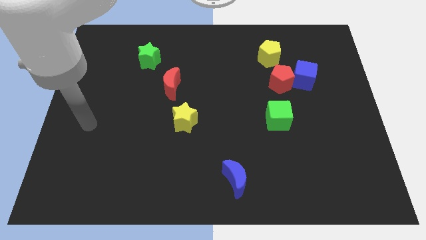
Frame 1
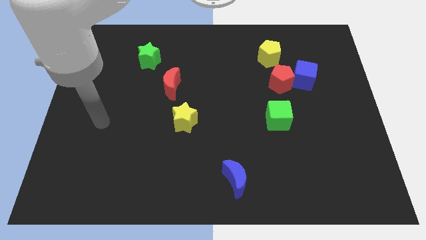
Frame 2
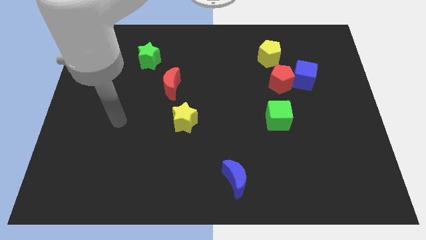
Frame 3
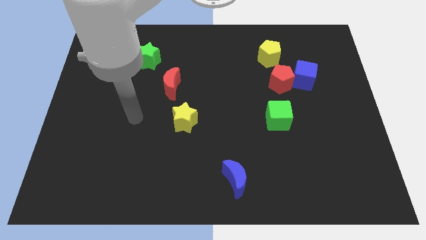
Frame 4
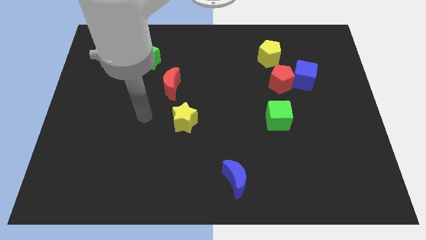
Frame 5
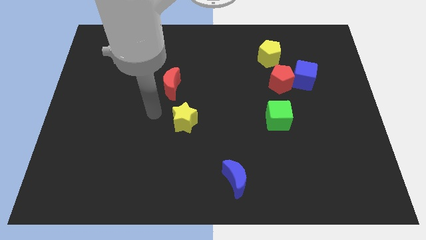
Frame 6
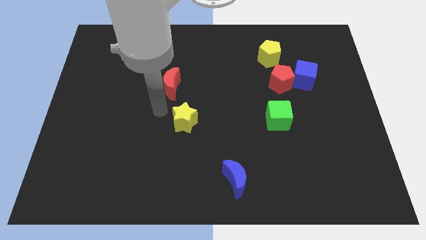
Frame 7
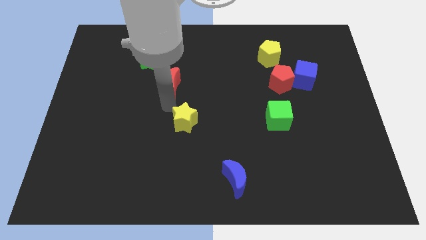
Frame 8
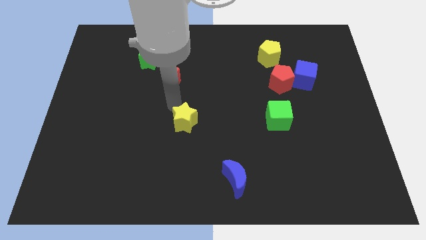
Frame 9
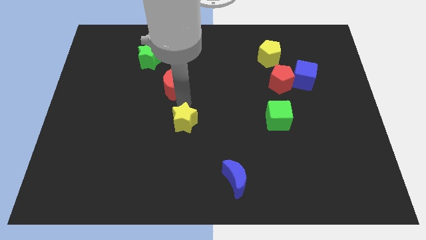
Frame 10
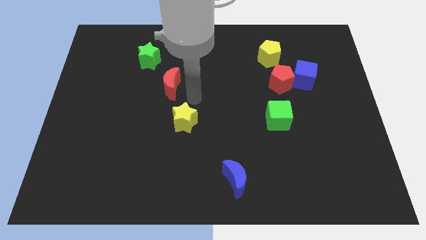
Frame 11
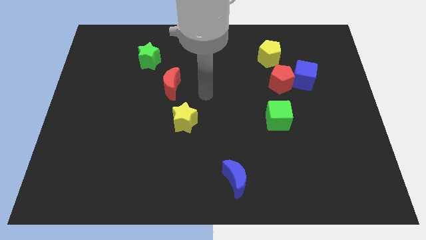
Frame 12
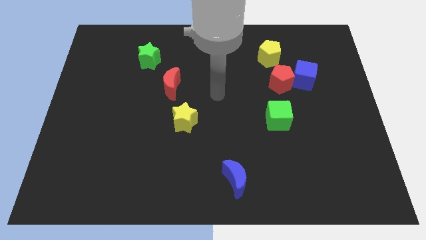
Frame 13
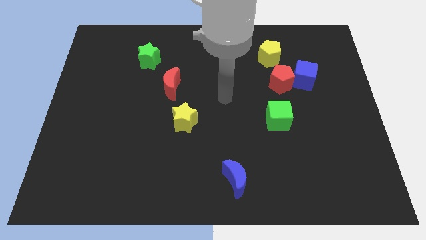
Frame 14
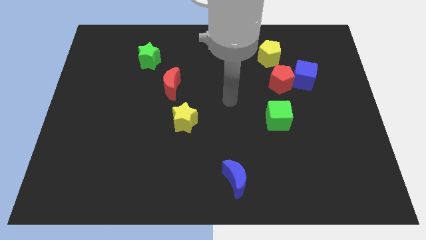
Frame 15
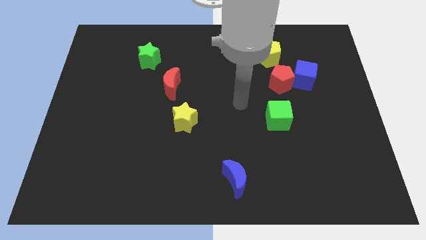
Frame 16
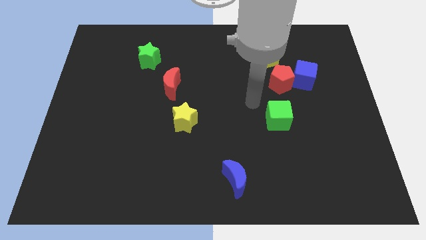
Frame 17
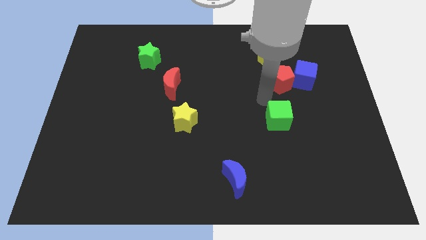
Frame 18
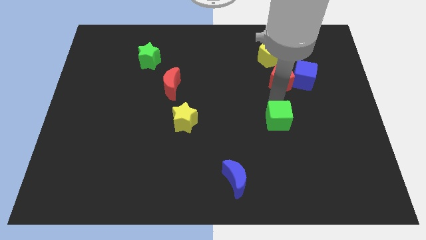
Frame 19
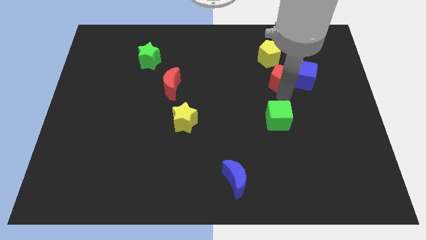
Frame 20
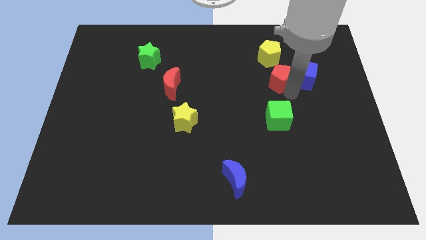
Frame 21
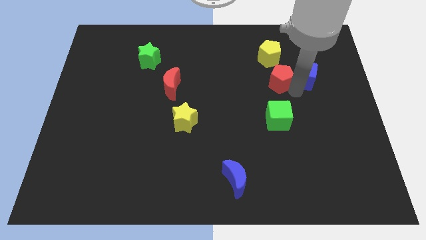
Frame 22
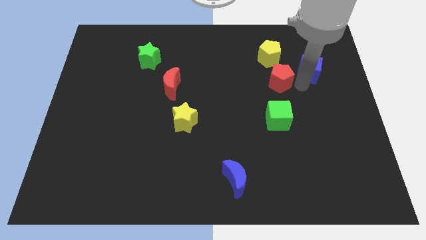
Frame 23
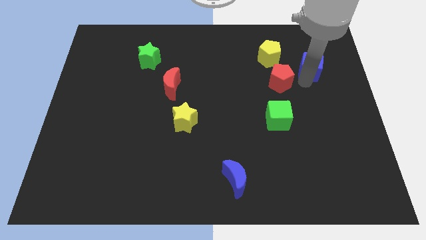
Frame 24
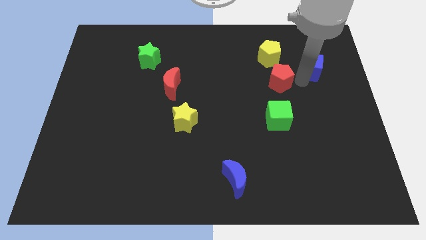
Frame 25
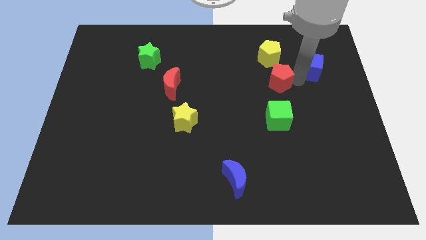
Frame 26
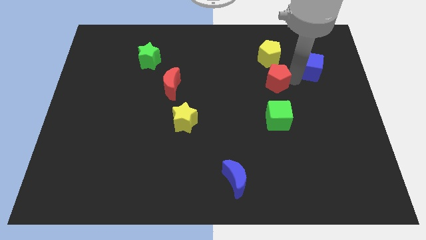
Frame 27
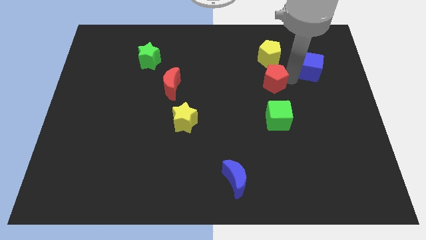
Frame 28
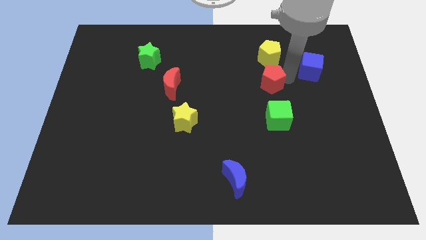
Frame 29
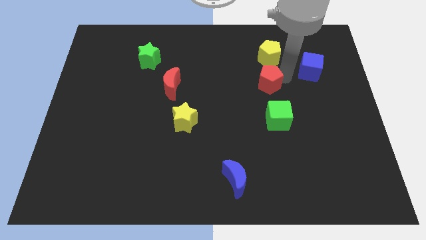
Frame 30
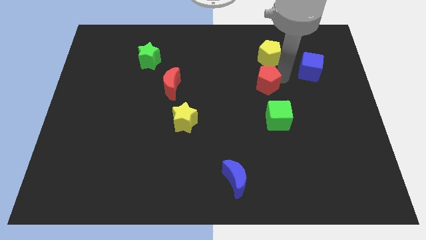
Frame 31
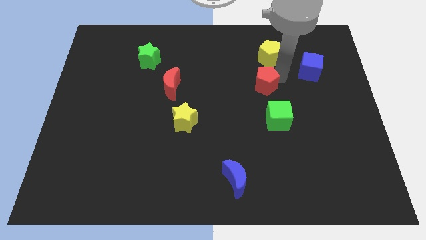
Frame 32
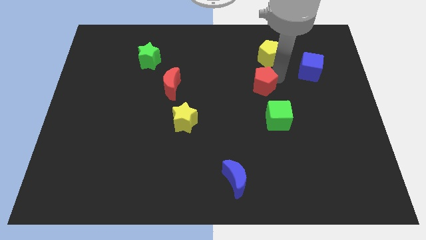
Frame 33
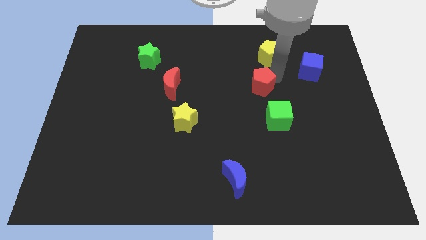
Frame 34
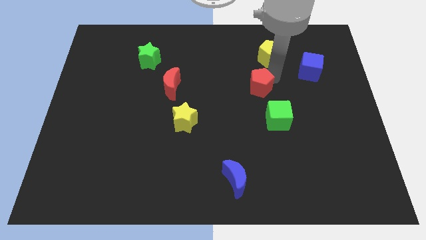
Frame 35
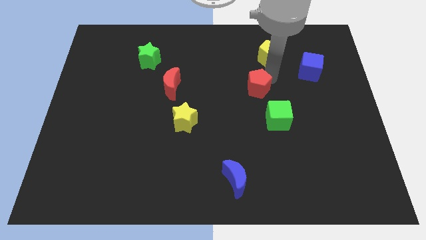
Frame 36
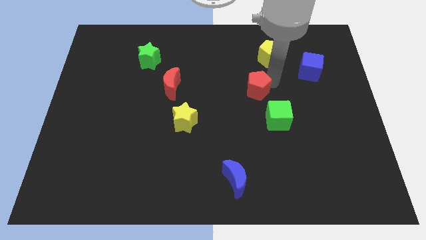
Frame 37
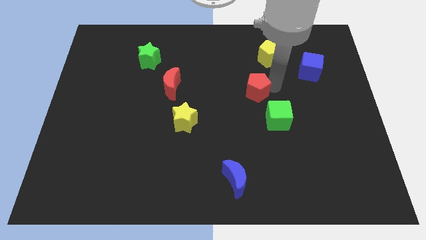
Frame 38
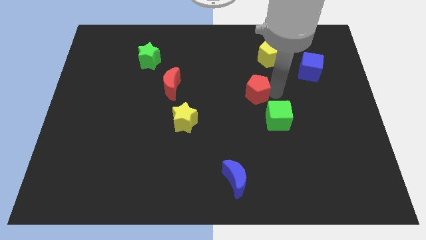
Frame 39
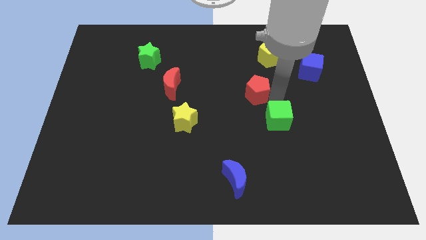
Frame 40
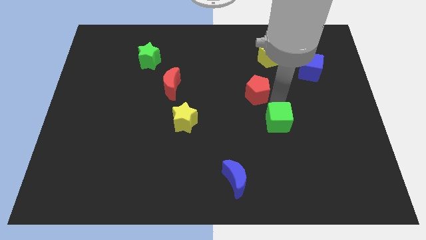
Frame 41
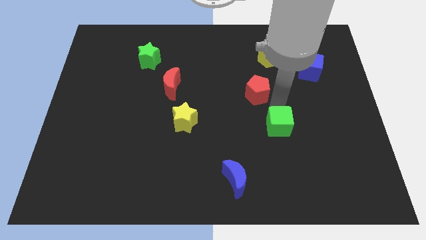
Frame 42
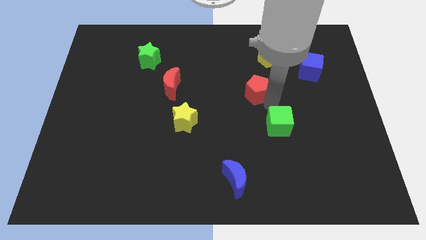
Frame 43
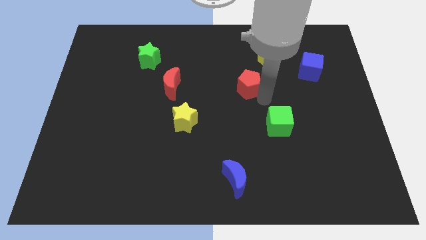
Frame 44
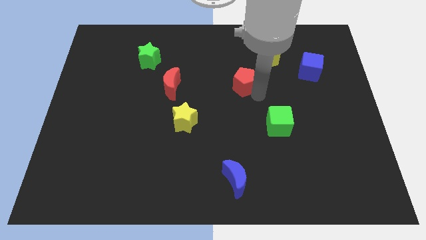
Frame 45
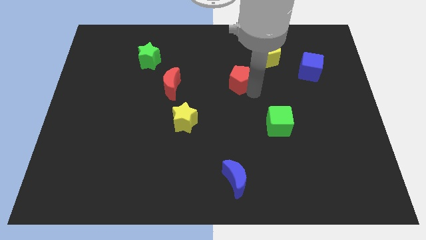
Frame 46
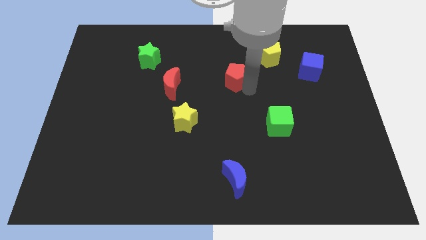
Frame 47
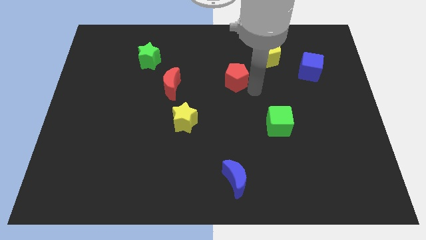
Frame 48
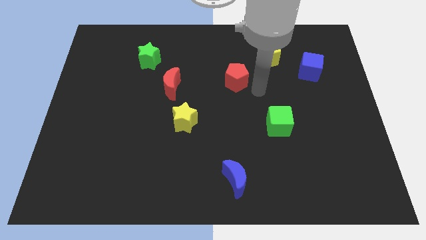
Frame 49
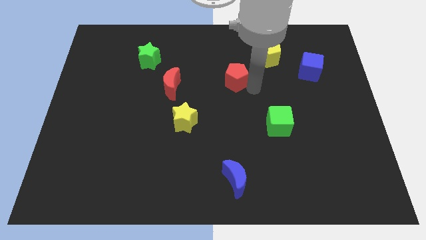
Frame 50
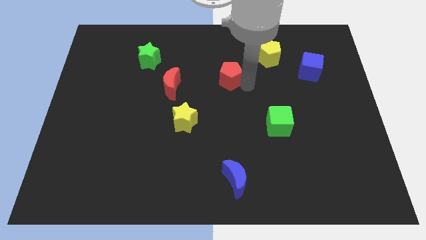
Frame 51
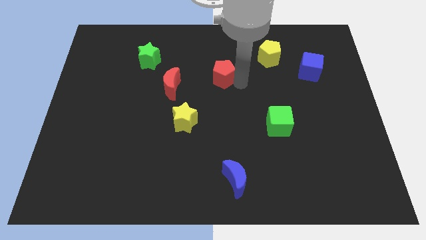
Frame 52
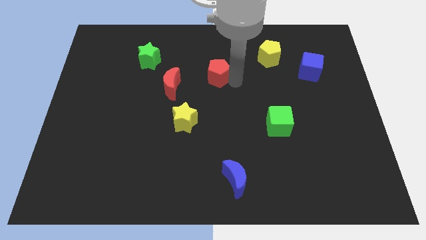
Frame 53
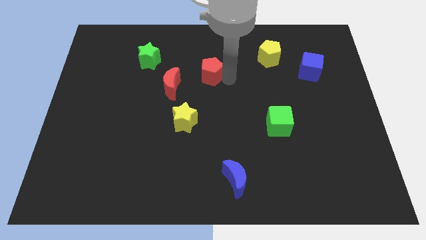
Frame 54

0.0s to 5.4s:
slide the red pentagon diagonally up and to the right of the red moon

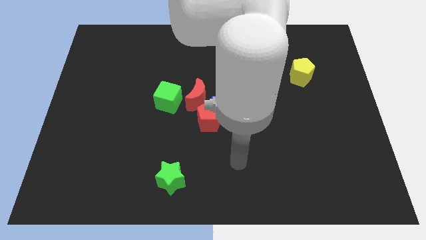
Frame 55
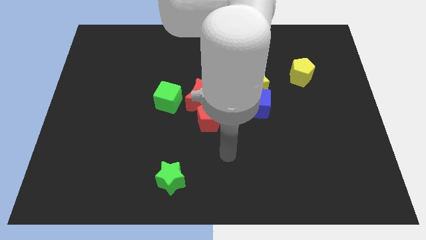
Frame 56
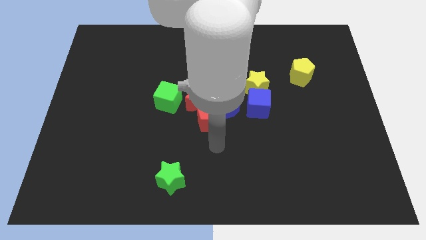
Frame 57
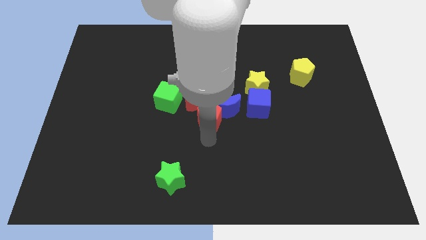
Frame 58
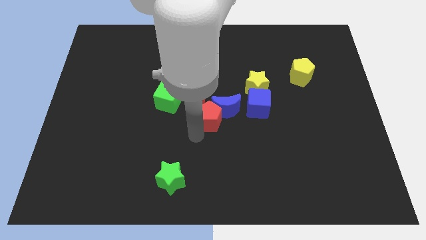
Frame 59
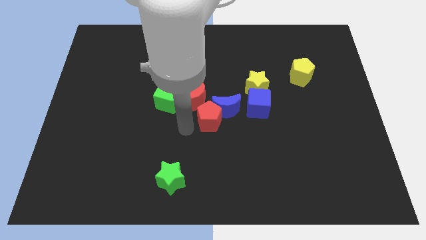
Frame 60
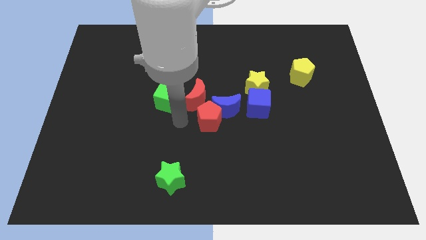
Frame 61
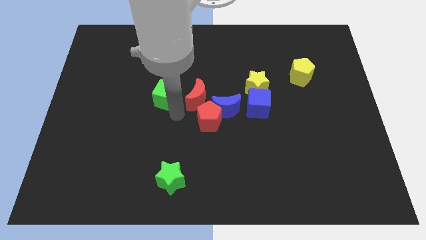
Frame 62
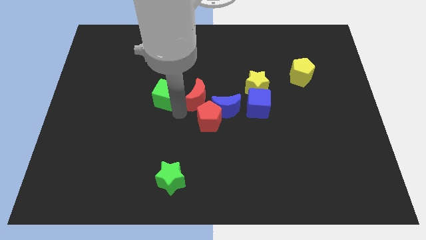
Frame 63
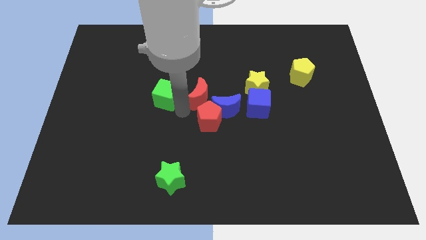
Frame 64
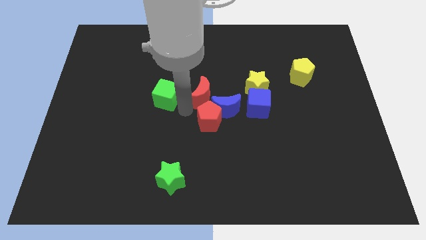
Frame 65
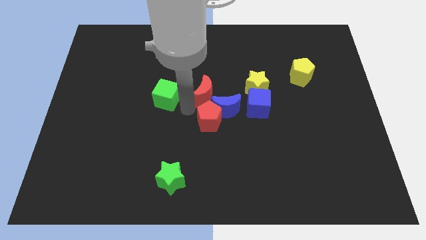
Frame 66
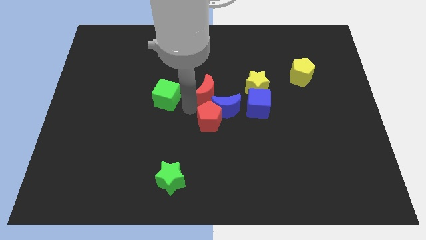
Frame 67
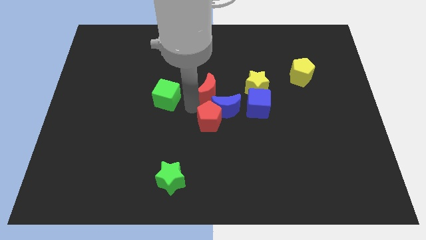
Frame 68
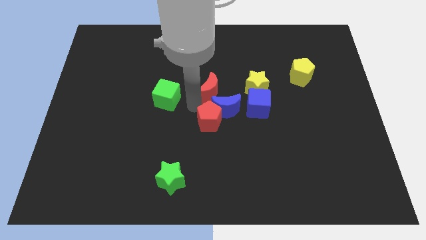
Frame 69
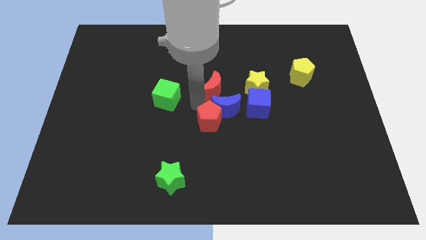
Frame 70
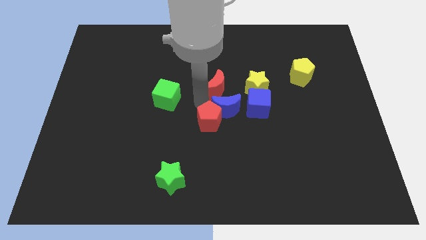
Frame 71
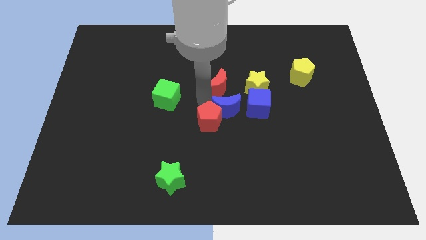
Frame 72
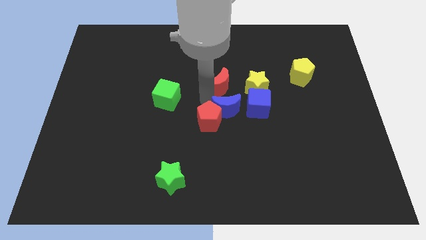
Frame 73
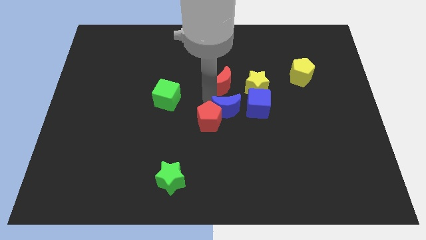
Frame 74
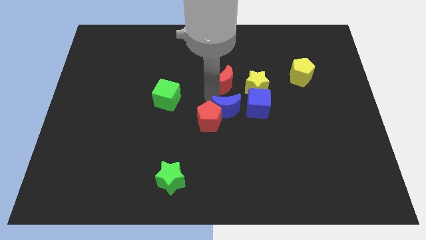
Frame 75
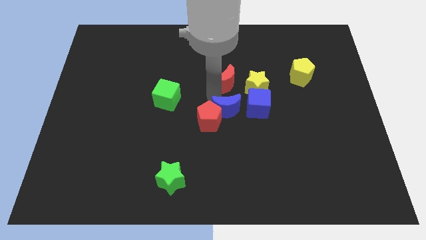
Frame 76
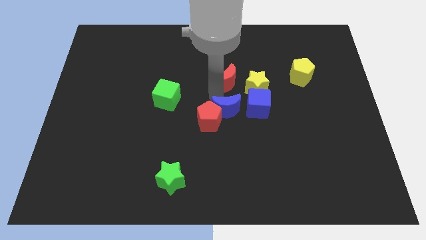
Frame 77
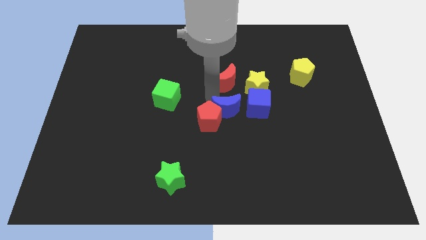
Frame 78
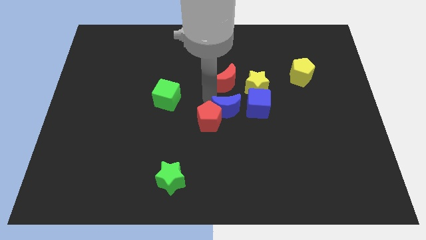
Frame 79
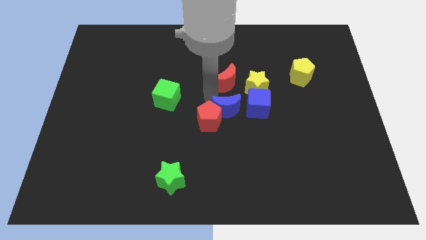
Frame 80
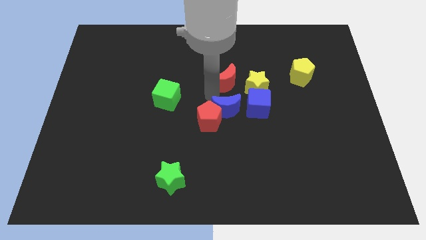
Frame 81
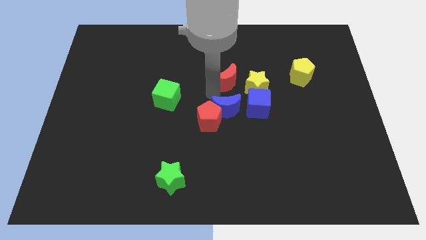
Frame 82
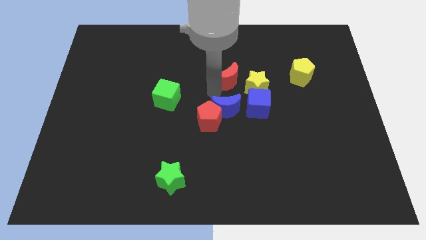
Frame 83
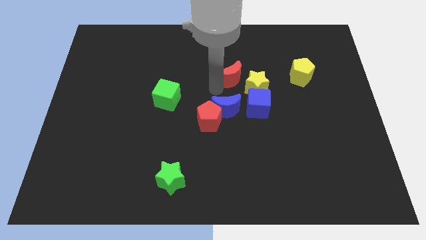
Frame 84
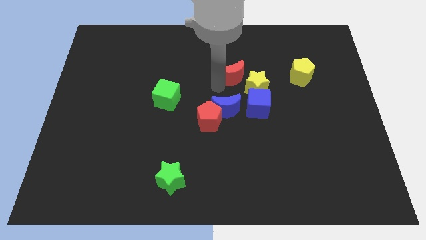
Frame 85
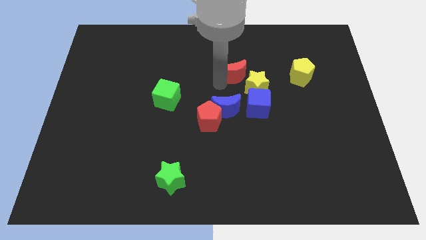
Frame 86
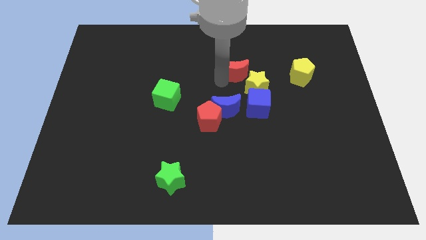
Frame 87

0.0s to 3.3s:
put the red moon to the top of the yellow star
